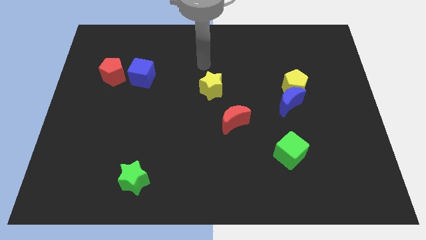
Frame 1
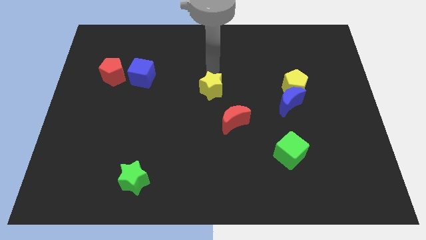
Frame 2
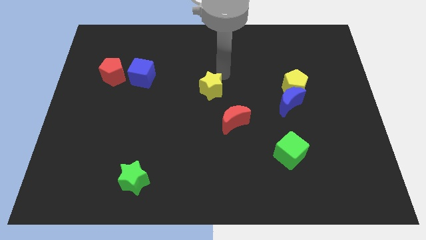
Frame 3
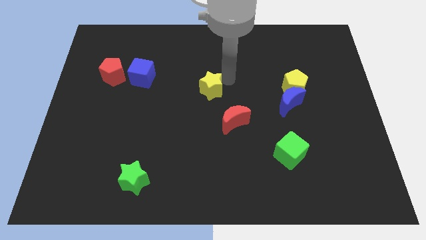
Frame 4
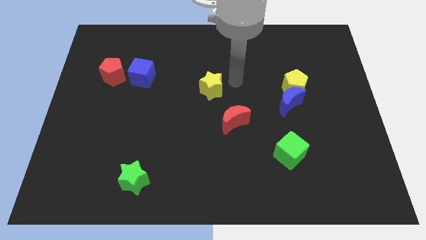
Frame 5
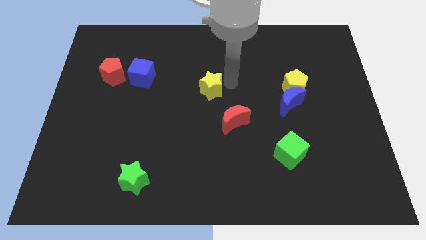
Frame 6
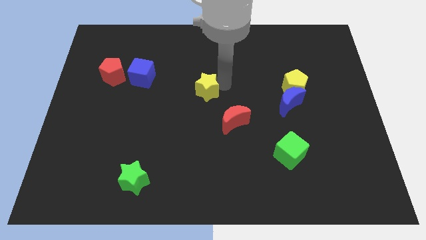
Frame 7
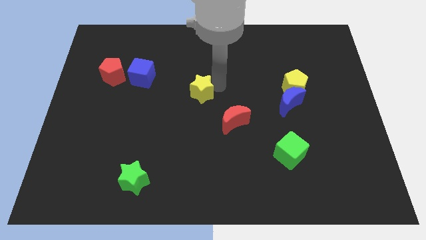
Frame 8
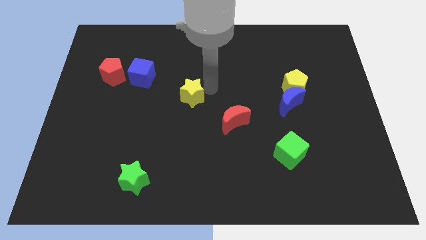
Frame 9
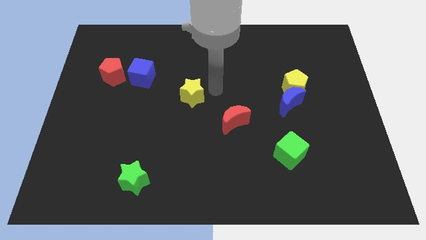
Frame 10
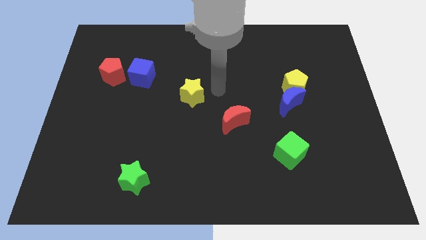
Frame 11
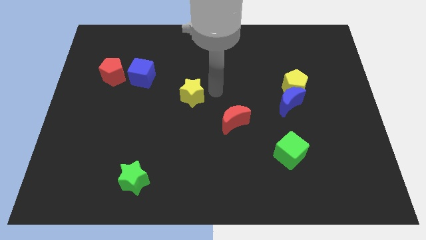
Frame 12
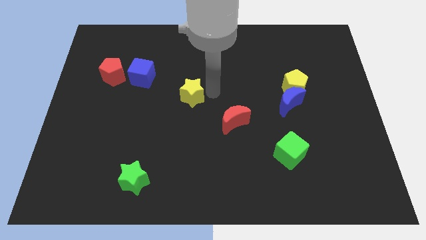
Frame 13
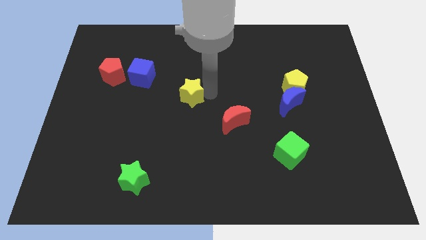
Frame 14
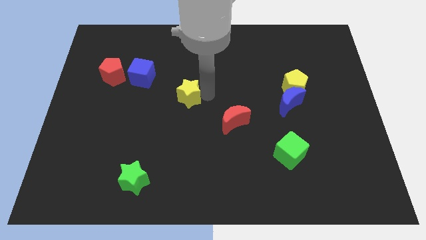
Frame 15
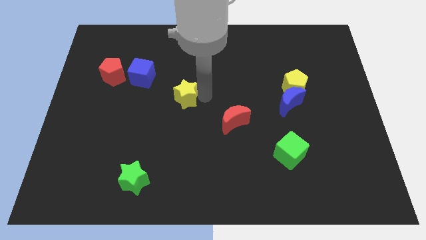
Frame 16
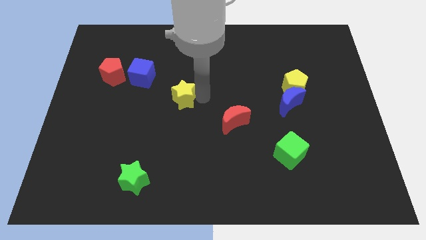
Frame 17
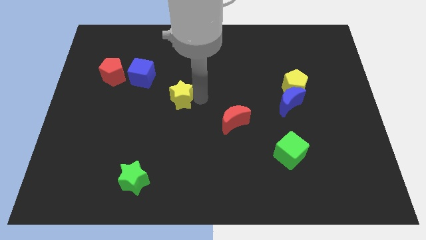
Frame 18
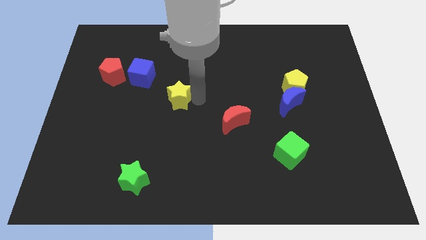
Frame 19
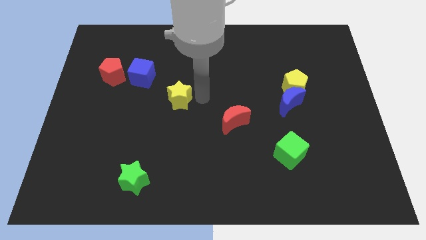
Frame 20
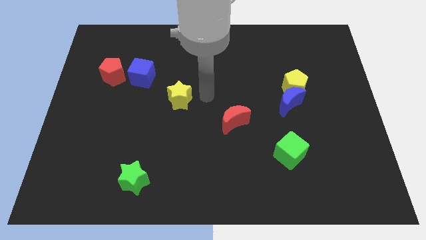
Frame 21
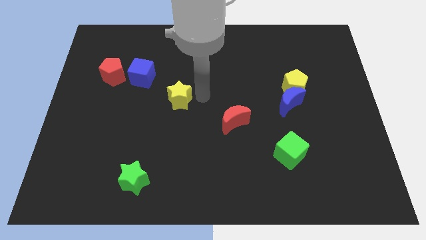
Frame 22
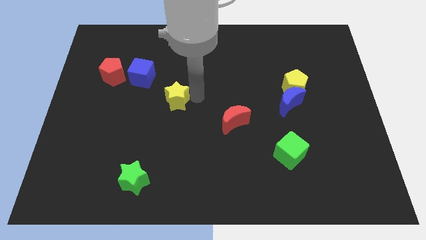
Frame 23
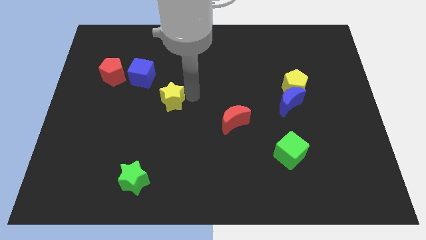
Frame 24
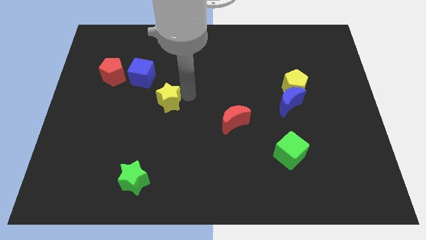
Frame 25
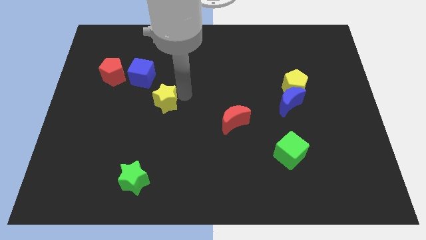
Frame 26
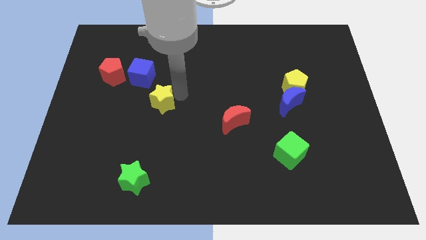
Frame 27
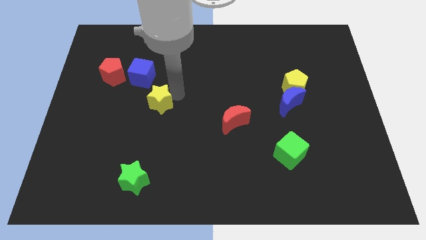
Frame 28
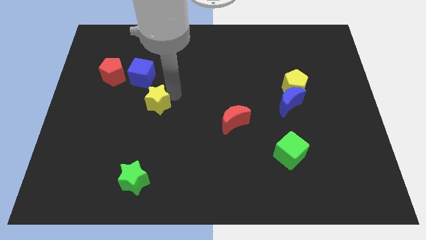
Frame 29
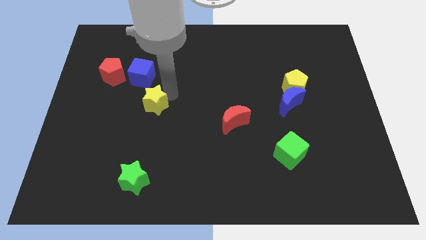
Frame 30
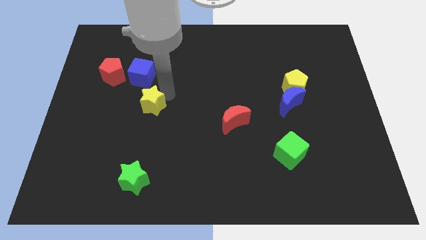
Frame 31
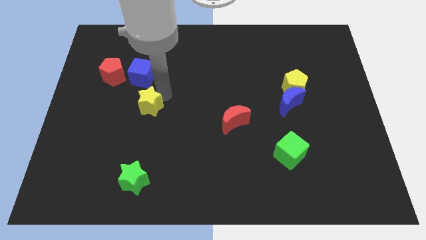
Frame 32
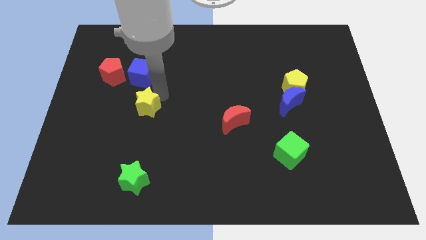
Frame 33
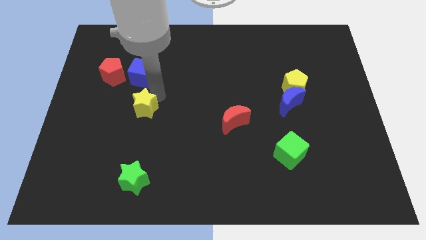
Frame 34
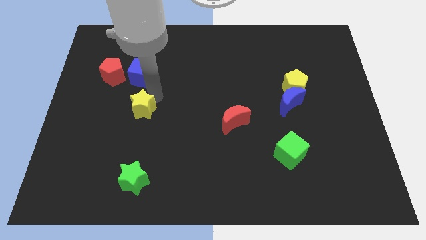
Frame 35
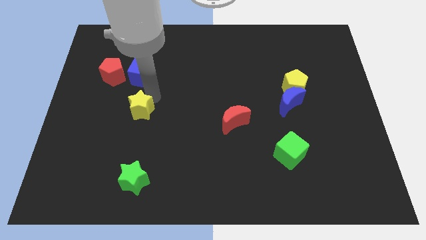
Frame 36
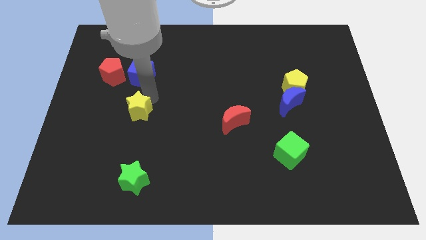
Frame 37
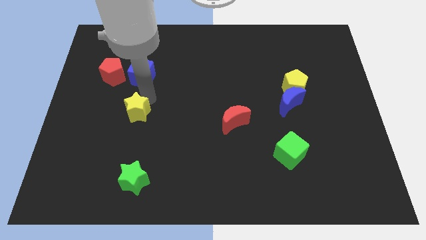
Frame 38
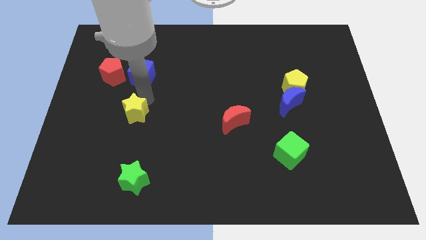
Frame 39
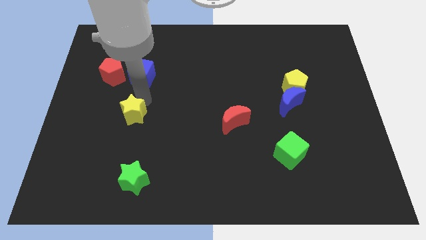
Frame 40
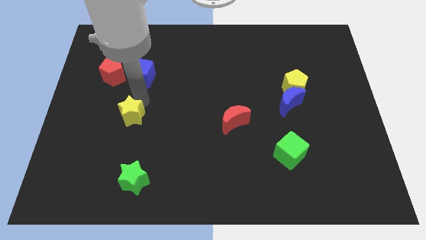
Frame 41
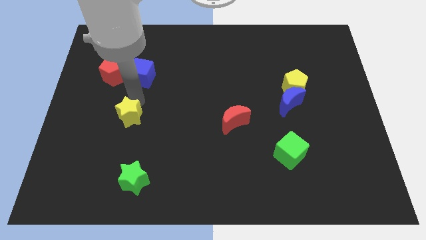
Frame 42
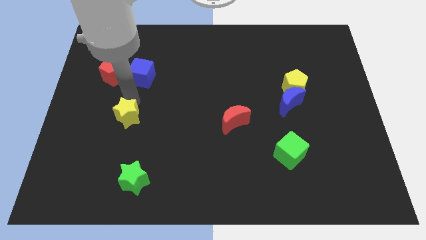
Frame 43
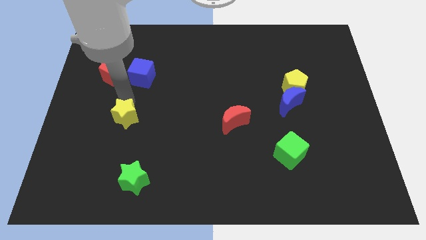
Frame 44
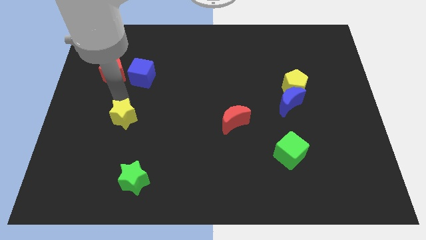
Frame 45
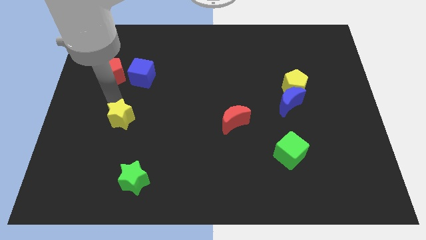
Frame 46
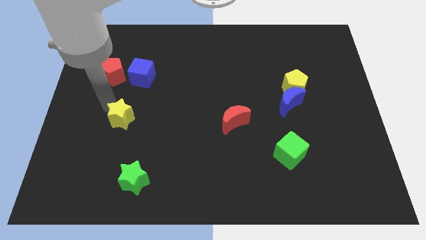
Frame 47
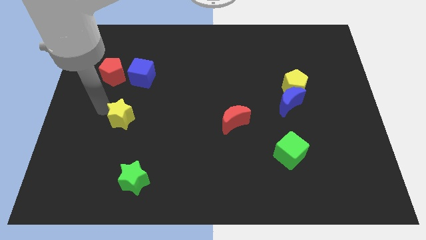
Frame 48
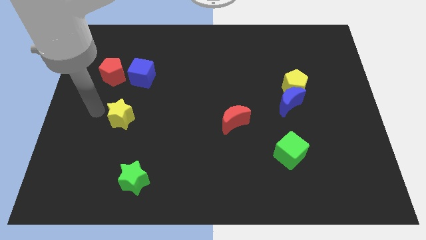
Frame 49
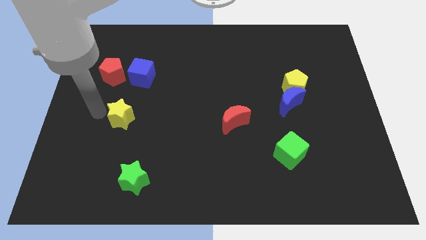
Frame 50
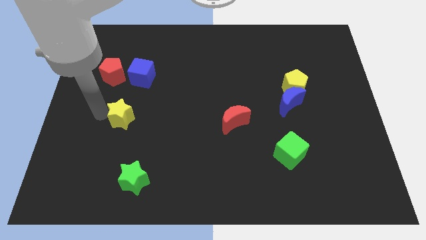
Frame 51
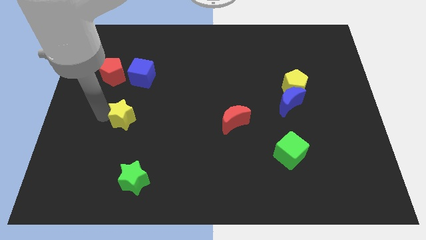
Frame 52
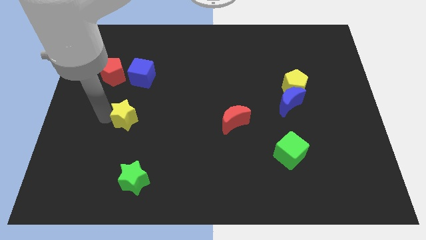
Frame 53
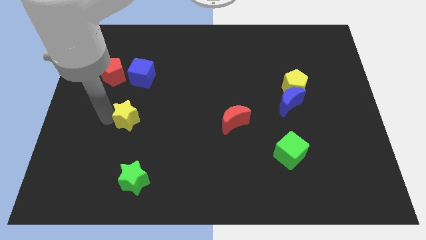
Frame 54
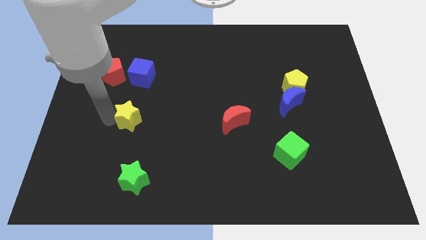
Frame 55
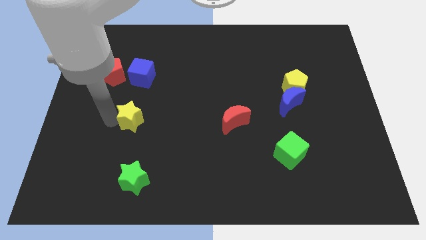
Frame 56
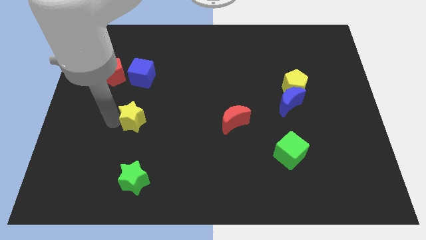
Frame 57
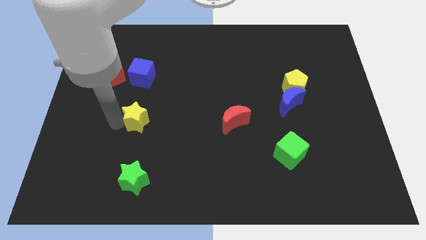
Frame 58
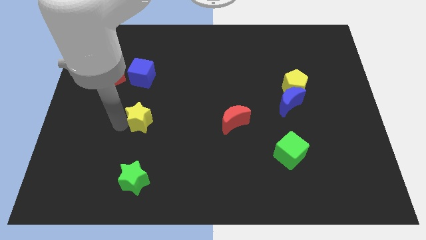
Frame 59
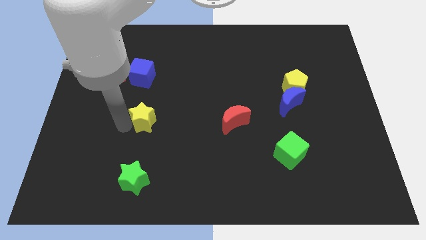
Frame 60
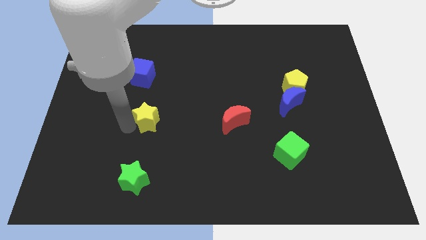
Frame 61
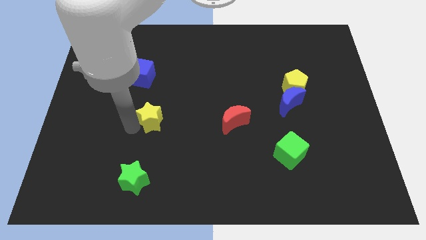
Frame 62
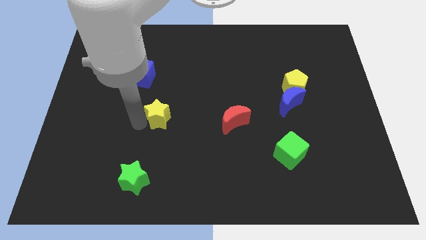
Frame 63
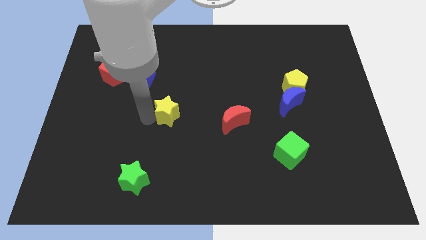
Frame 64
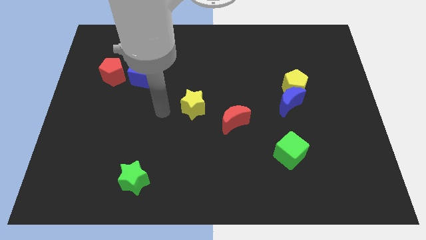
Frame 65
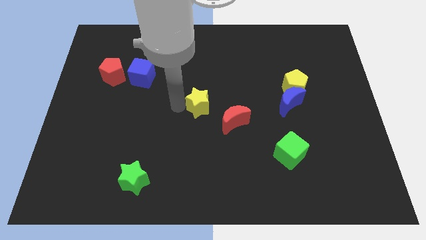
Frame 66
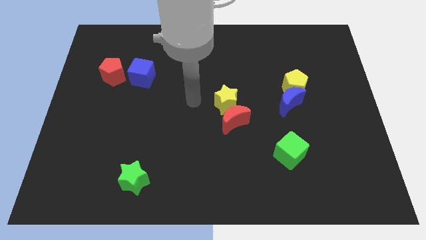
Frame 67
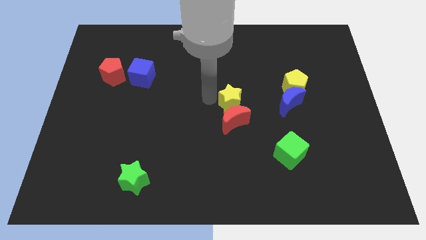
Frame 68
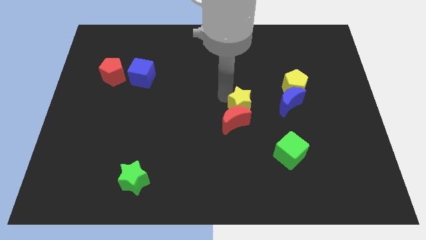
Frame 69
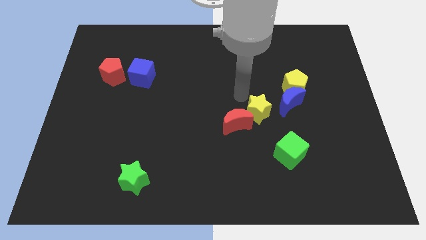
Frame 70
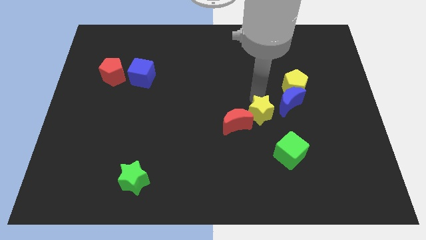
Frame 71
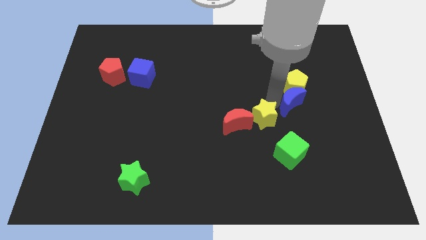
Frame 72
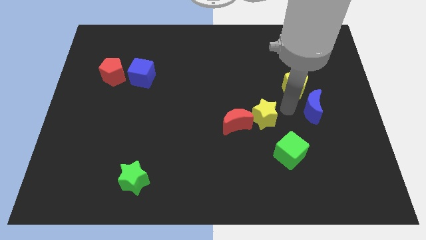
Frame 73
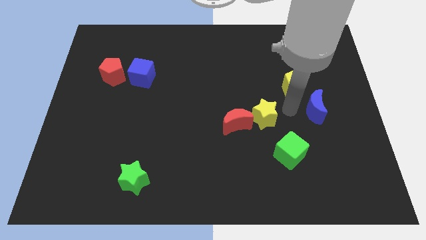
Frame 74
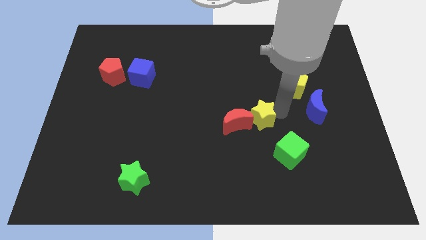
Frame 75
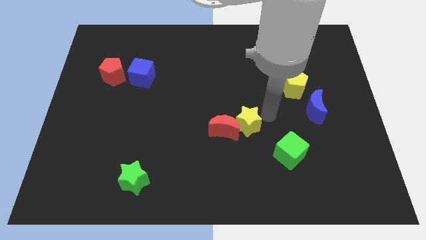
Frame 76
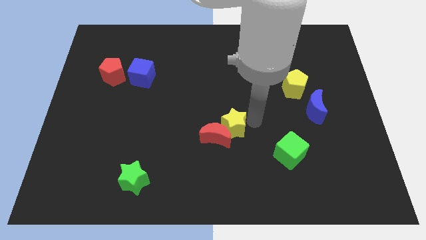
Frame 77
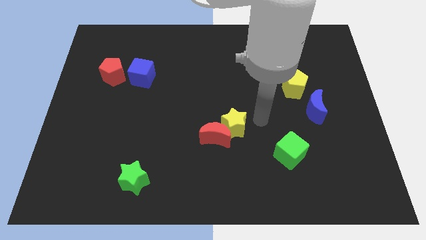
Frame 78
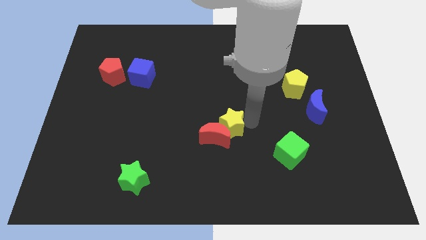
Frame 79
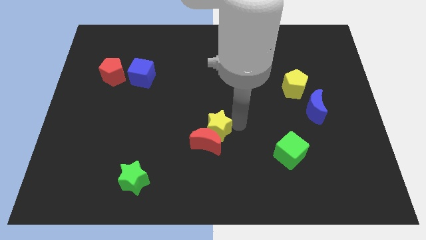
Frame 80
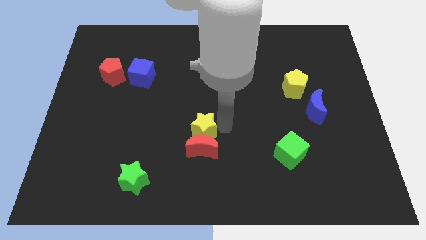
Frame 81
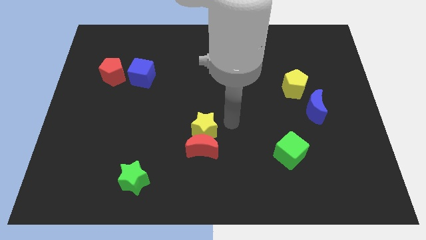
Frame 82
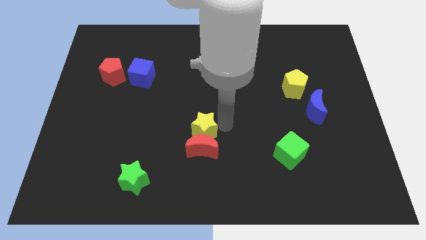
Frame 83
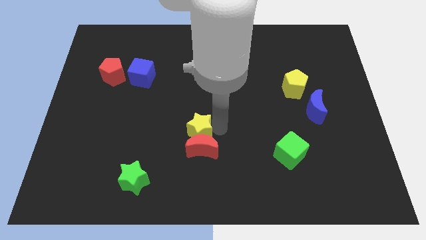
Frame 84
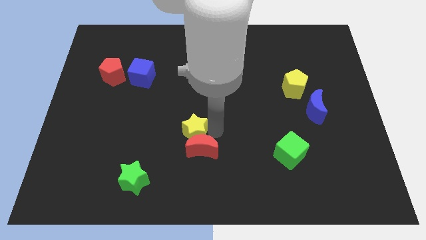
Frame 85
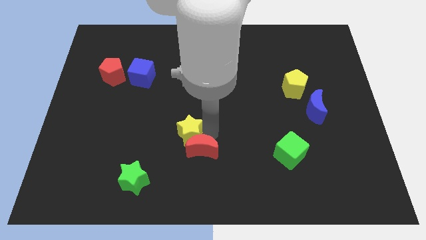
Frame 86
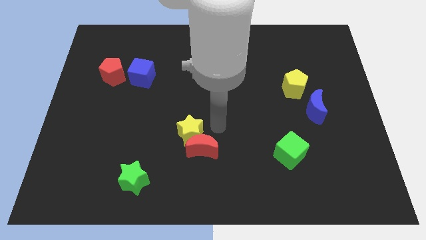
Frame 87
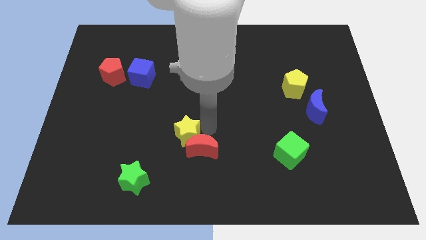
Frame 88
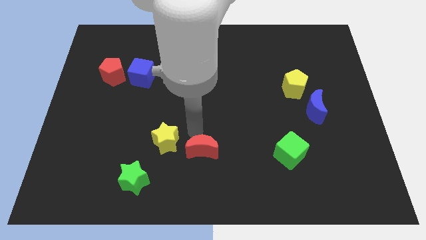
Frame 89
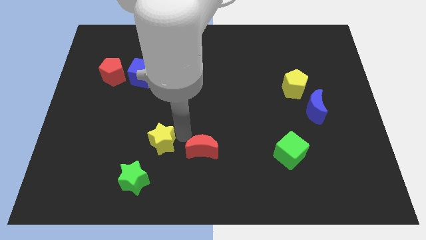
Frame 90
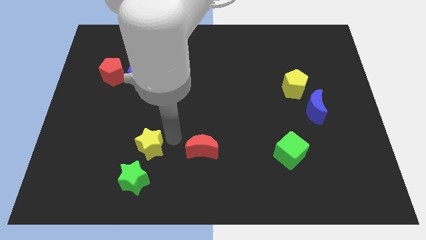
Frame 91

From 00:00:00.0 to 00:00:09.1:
push the yellow star downwards and to the left diagonally
